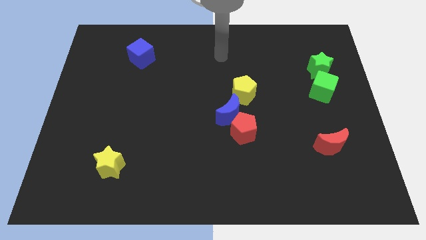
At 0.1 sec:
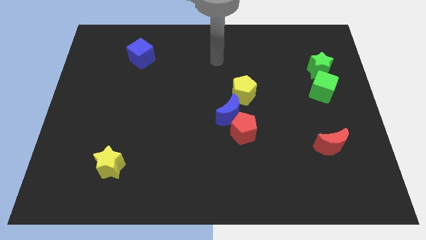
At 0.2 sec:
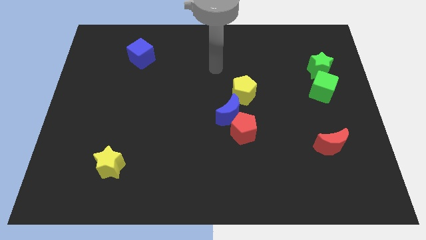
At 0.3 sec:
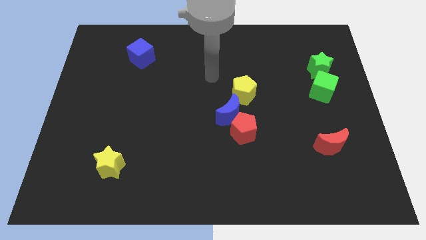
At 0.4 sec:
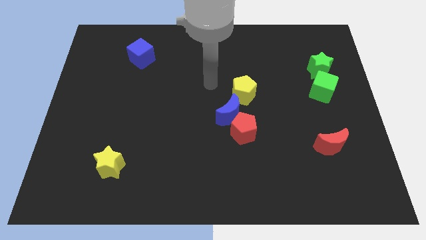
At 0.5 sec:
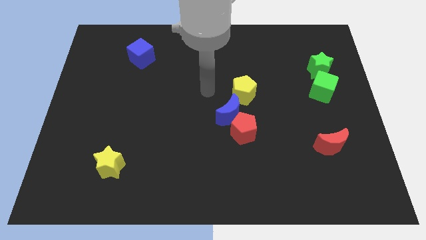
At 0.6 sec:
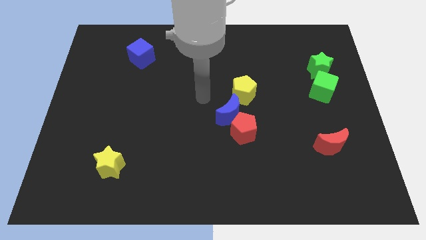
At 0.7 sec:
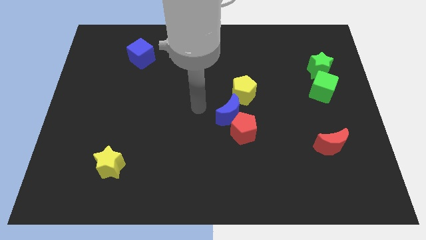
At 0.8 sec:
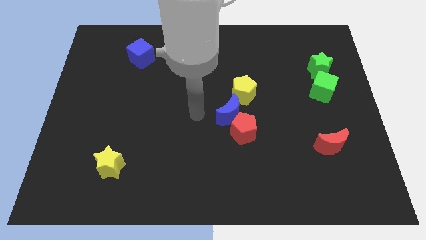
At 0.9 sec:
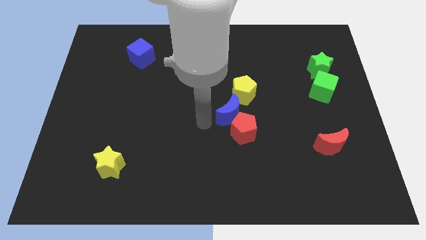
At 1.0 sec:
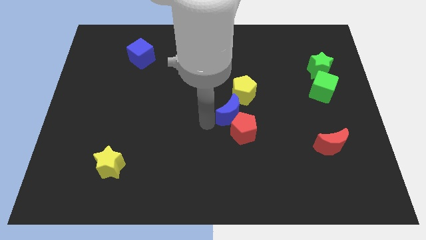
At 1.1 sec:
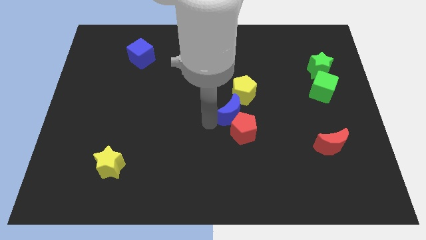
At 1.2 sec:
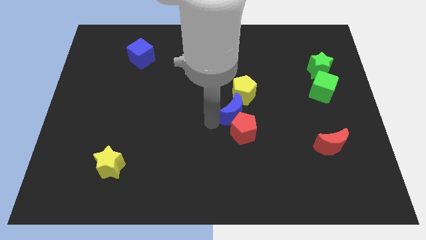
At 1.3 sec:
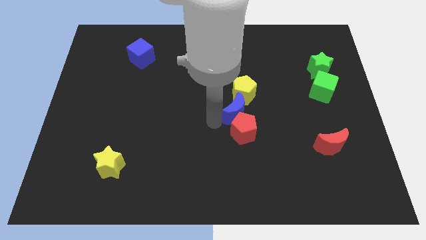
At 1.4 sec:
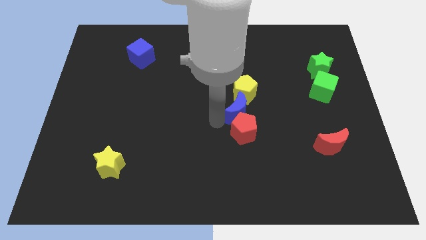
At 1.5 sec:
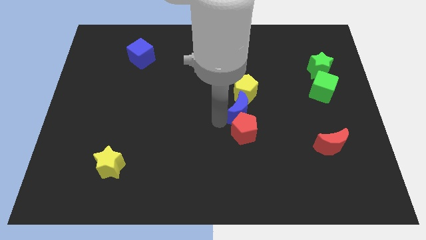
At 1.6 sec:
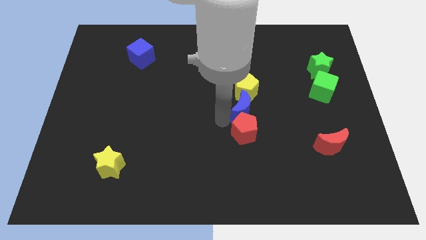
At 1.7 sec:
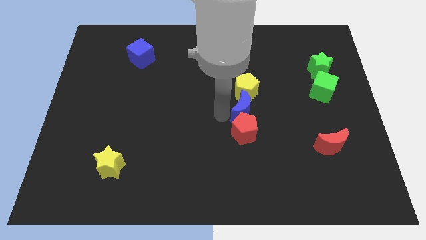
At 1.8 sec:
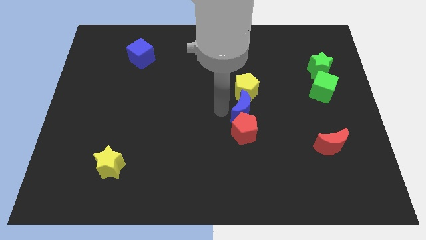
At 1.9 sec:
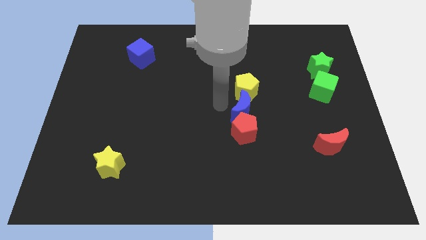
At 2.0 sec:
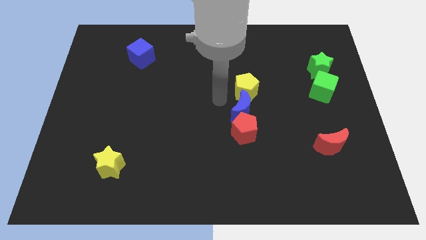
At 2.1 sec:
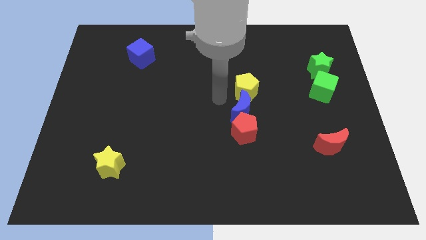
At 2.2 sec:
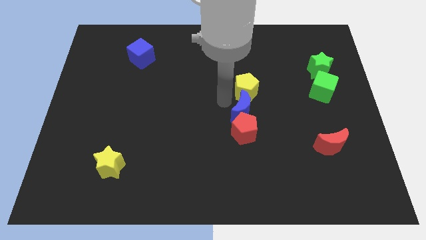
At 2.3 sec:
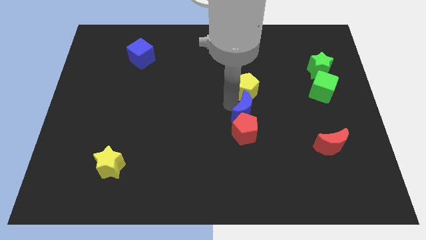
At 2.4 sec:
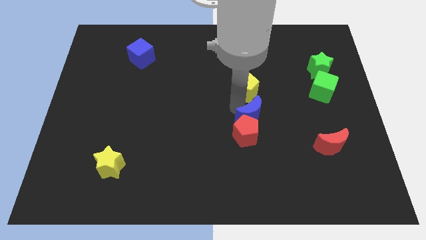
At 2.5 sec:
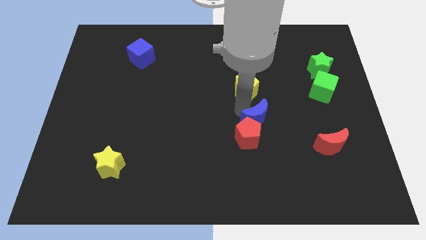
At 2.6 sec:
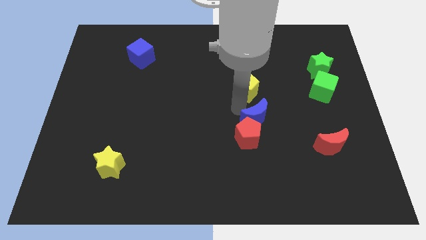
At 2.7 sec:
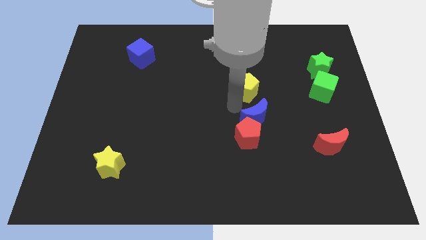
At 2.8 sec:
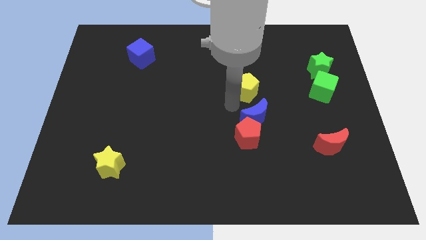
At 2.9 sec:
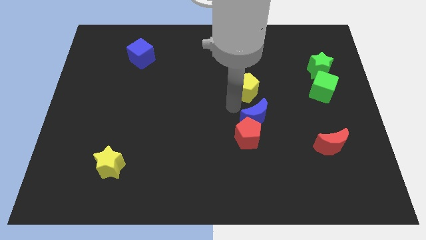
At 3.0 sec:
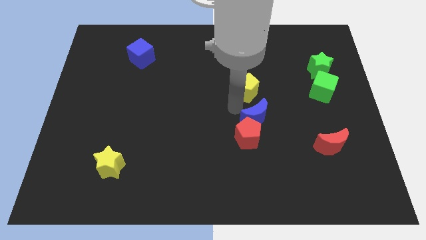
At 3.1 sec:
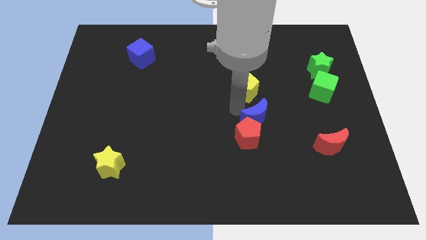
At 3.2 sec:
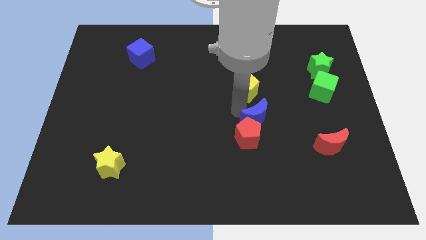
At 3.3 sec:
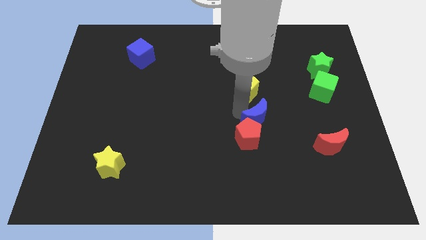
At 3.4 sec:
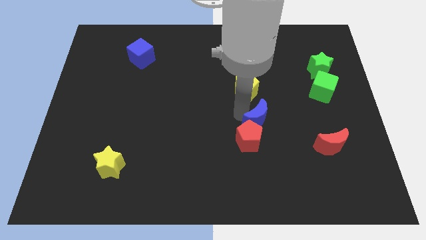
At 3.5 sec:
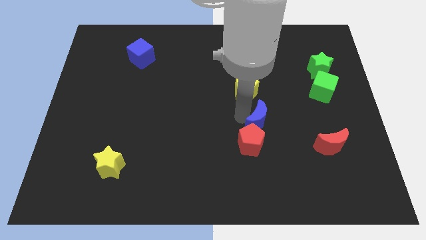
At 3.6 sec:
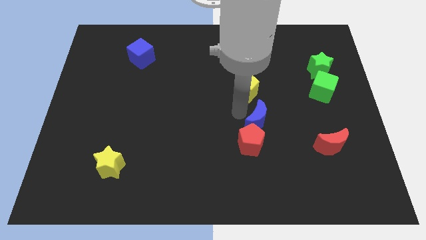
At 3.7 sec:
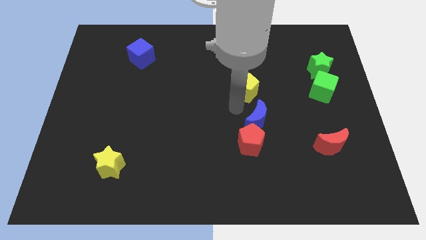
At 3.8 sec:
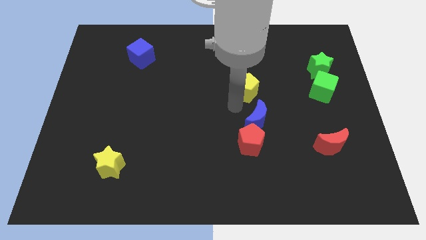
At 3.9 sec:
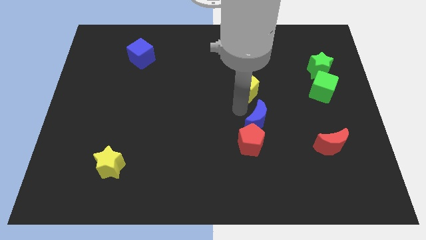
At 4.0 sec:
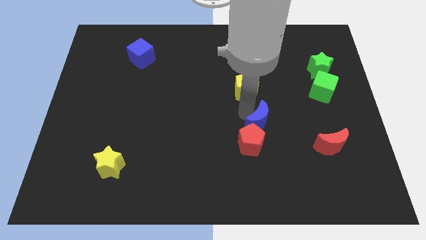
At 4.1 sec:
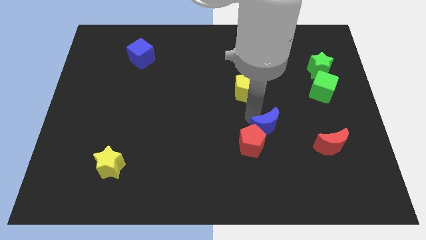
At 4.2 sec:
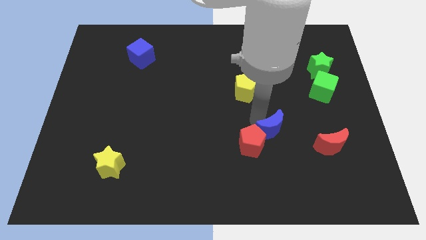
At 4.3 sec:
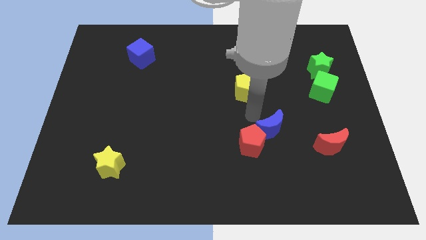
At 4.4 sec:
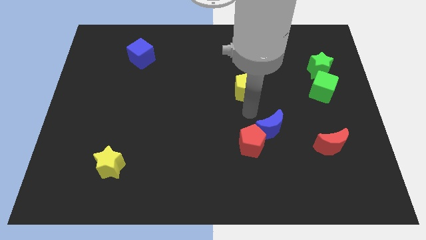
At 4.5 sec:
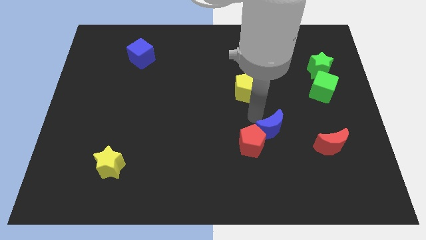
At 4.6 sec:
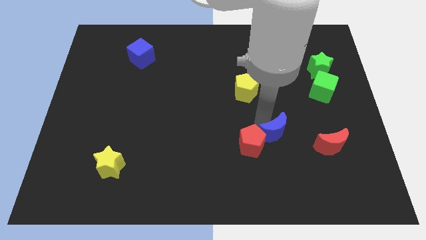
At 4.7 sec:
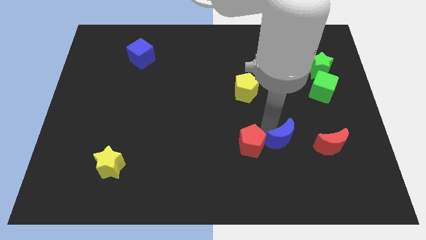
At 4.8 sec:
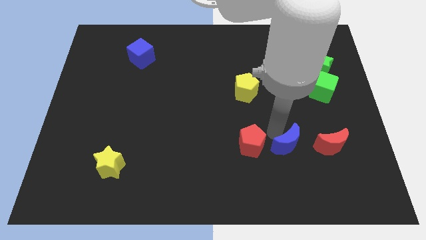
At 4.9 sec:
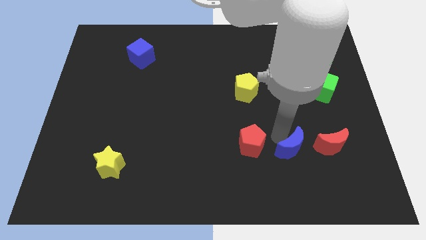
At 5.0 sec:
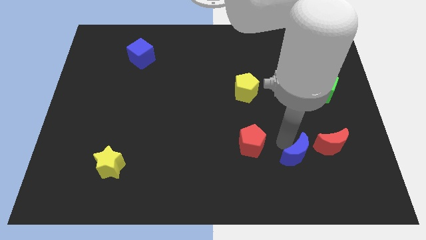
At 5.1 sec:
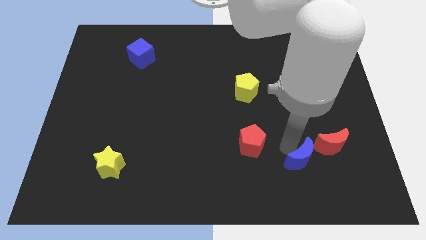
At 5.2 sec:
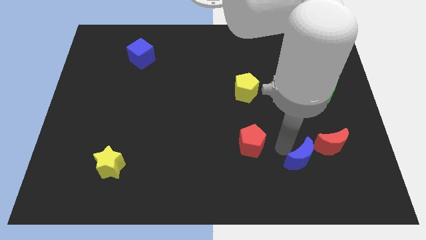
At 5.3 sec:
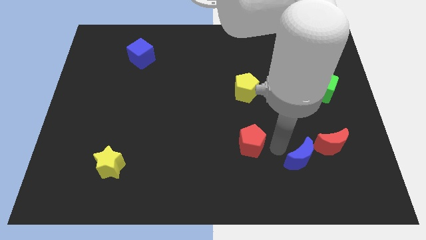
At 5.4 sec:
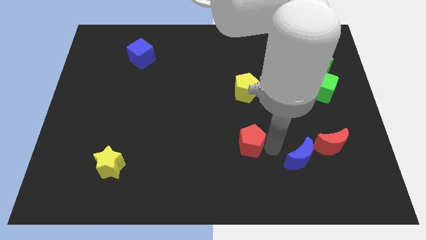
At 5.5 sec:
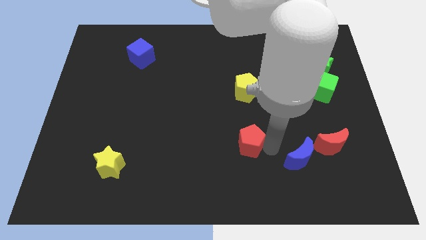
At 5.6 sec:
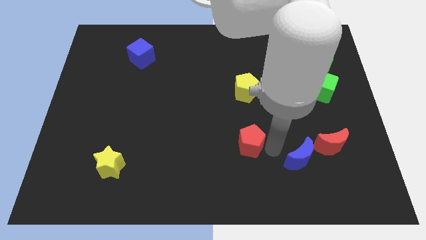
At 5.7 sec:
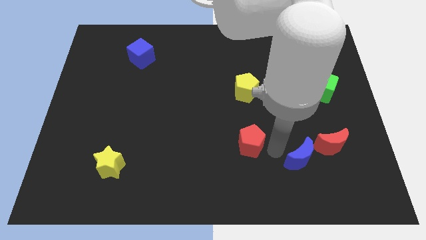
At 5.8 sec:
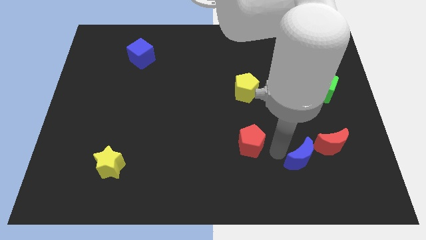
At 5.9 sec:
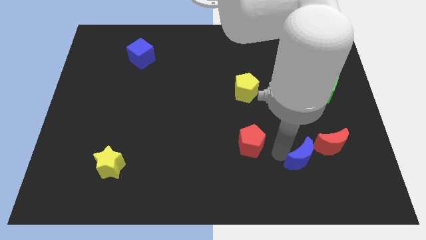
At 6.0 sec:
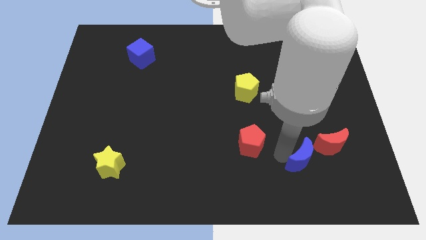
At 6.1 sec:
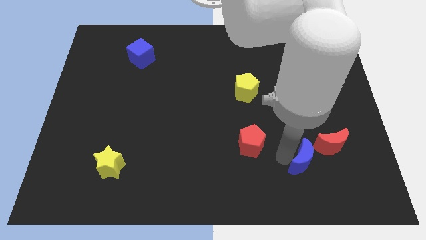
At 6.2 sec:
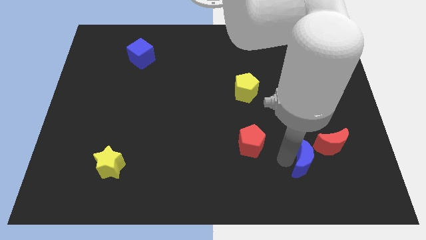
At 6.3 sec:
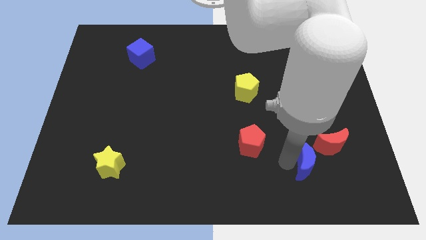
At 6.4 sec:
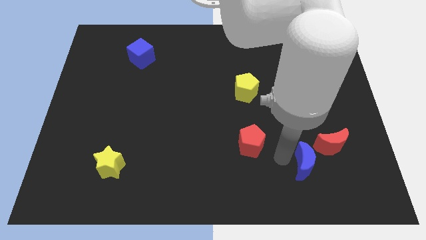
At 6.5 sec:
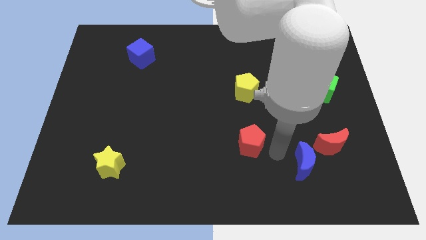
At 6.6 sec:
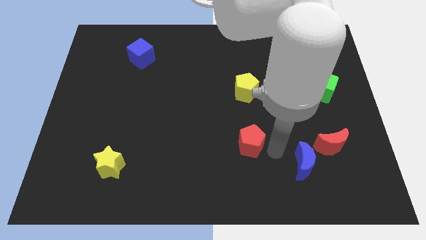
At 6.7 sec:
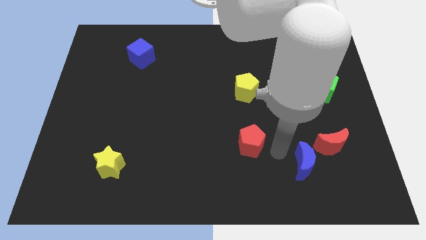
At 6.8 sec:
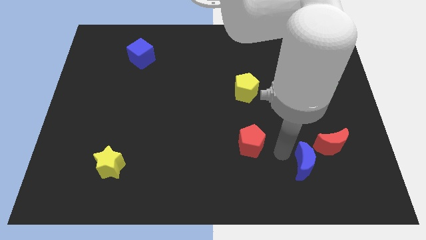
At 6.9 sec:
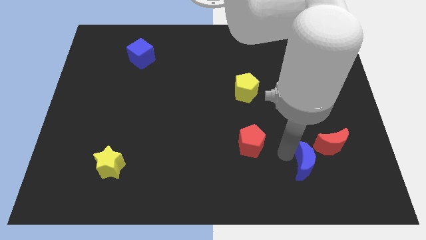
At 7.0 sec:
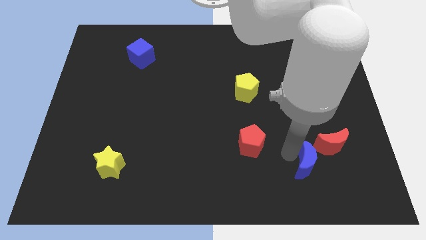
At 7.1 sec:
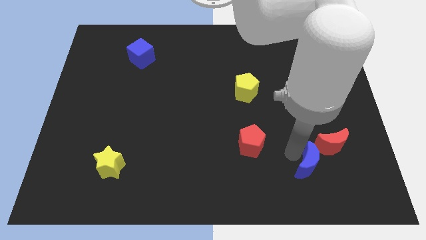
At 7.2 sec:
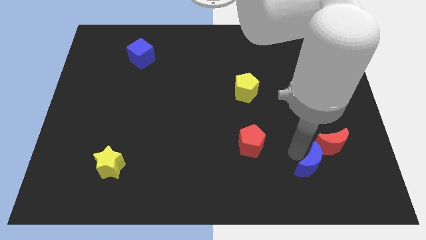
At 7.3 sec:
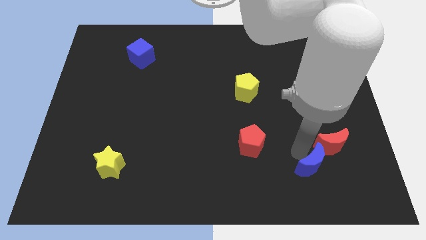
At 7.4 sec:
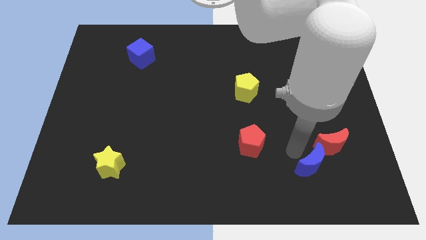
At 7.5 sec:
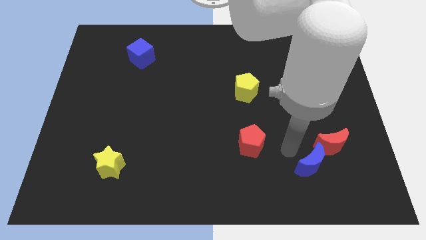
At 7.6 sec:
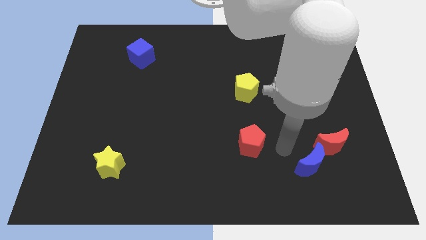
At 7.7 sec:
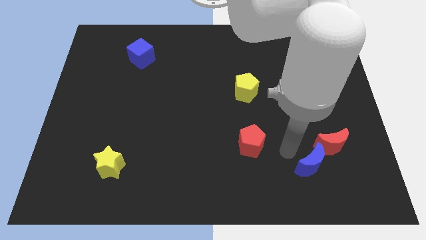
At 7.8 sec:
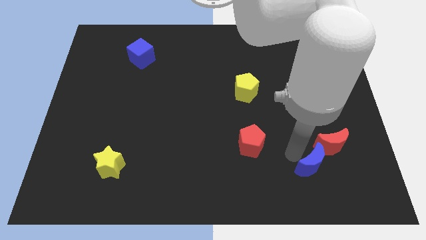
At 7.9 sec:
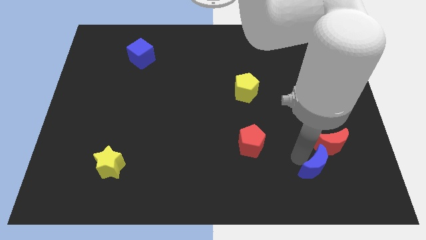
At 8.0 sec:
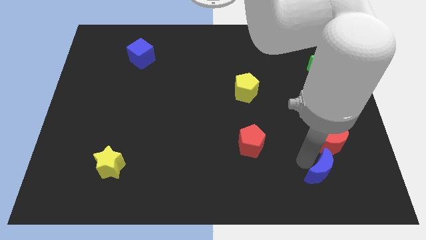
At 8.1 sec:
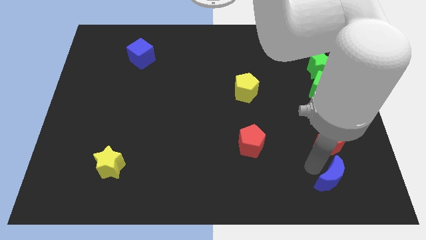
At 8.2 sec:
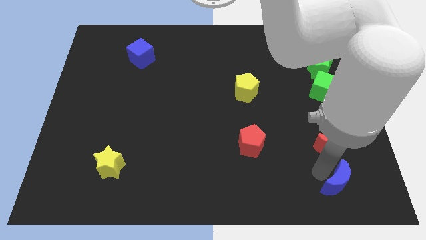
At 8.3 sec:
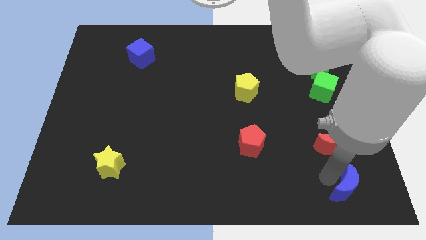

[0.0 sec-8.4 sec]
slide the blue moon to the bottom right
